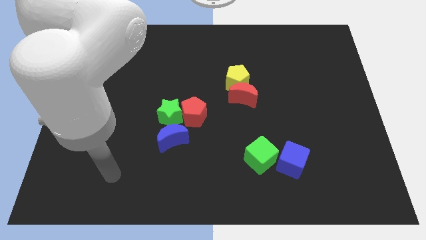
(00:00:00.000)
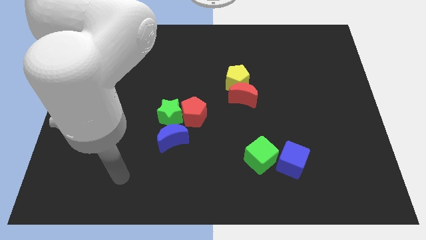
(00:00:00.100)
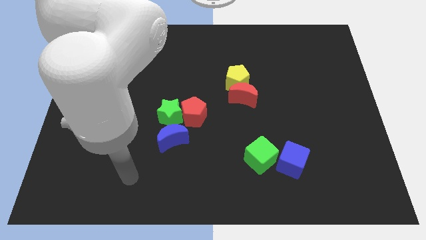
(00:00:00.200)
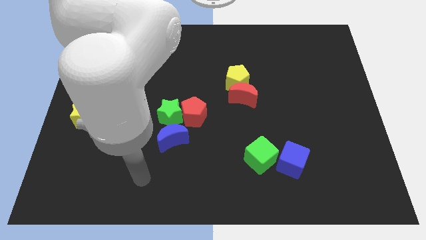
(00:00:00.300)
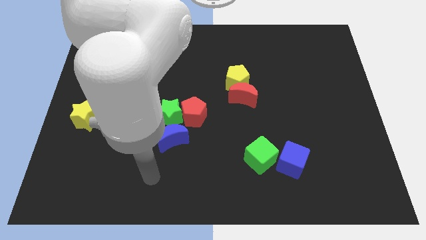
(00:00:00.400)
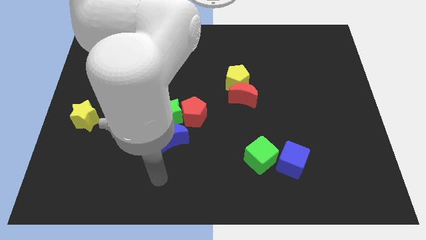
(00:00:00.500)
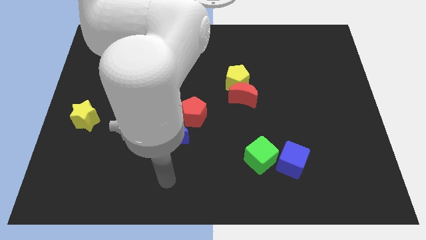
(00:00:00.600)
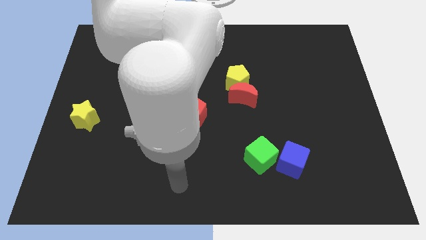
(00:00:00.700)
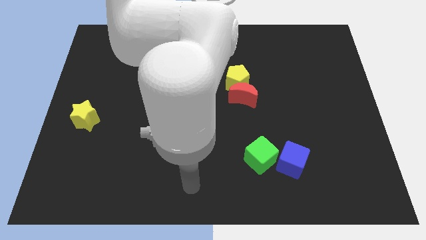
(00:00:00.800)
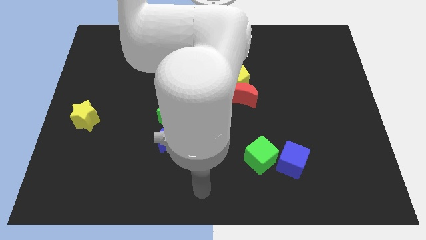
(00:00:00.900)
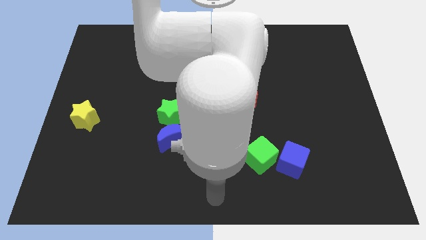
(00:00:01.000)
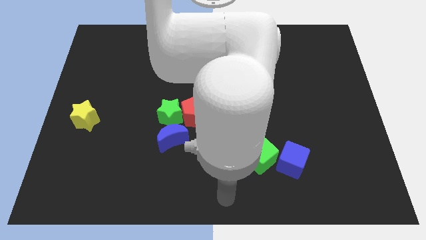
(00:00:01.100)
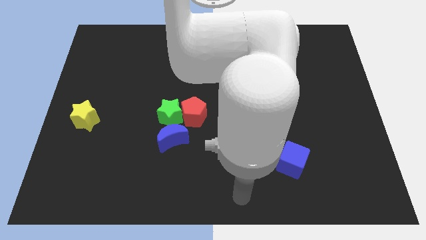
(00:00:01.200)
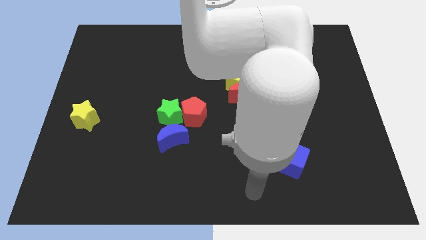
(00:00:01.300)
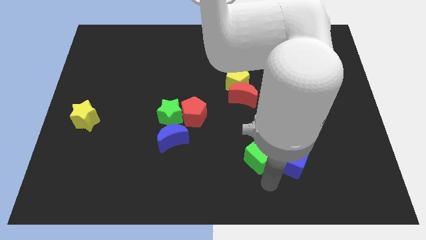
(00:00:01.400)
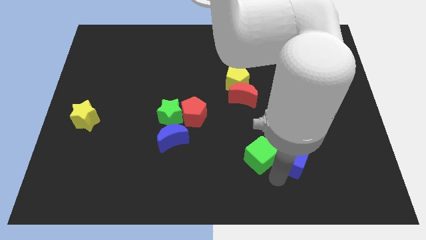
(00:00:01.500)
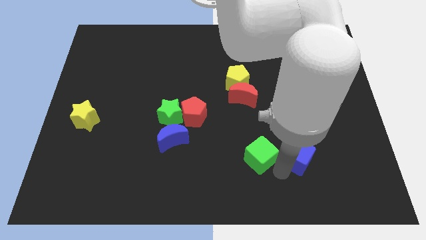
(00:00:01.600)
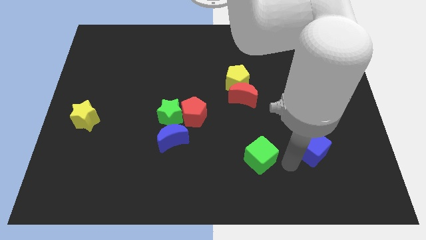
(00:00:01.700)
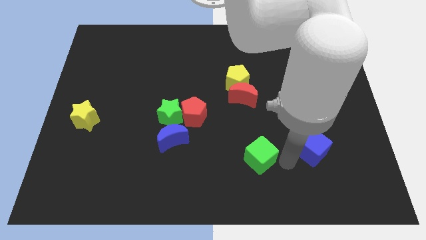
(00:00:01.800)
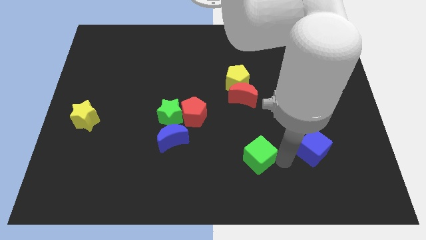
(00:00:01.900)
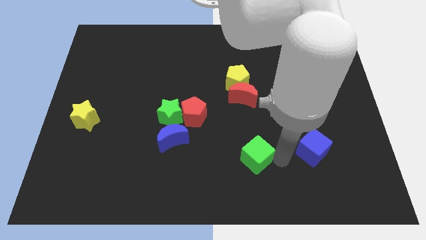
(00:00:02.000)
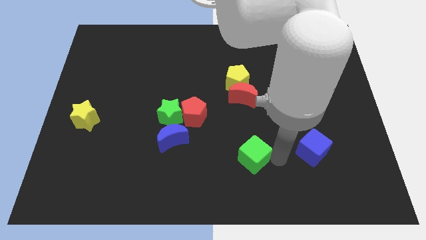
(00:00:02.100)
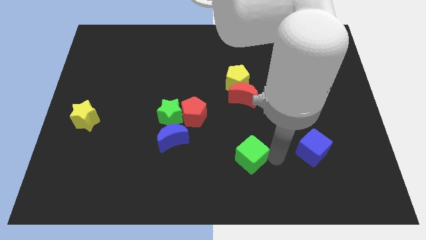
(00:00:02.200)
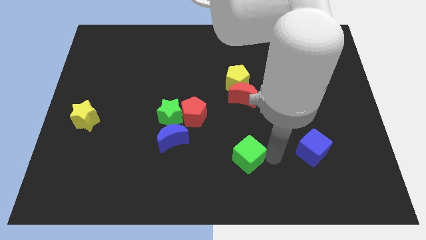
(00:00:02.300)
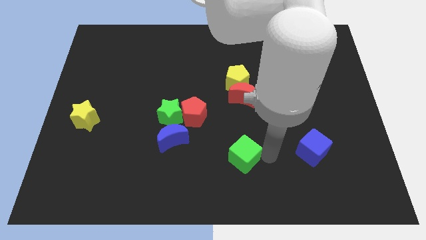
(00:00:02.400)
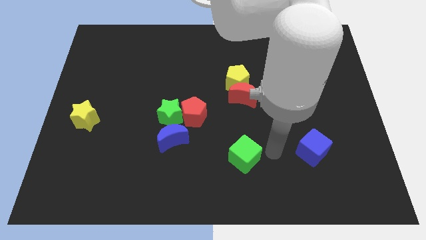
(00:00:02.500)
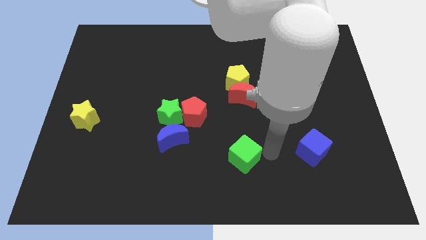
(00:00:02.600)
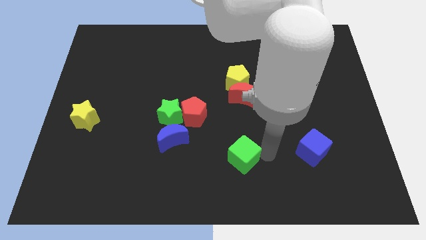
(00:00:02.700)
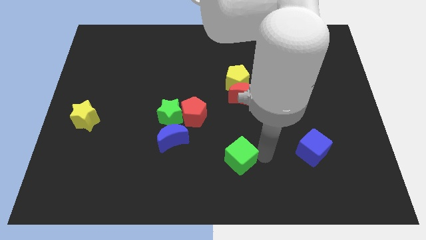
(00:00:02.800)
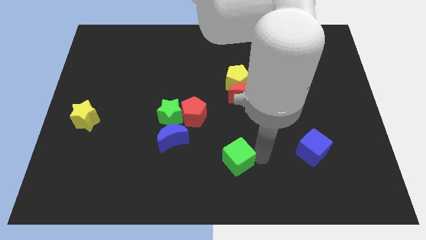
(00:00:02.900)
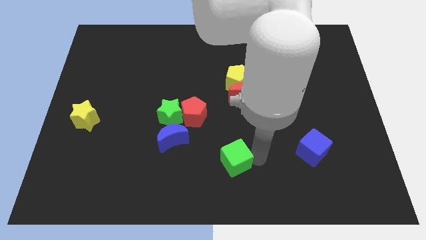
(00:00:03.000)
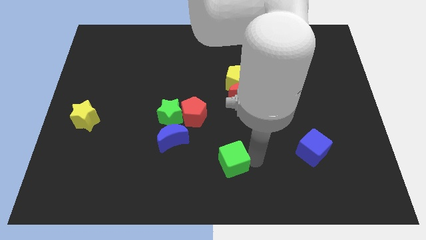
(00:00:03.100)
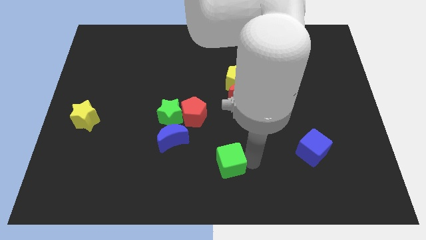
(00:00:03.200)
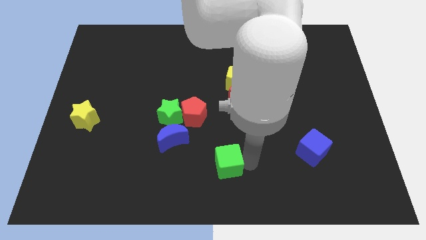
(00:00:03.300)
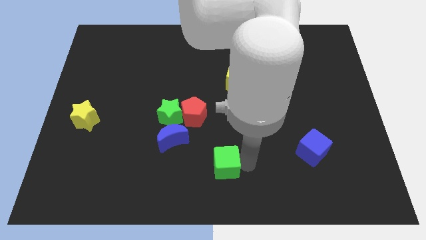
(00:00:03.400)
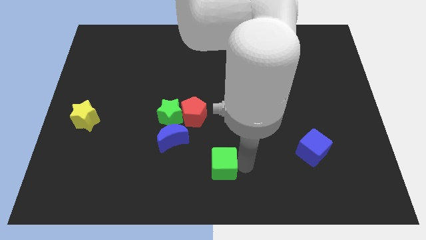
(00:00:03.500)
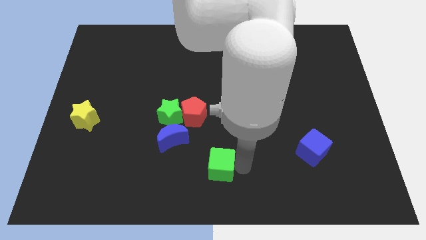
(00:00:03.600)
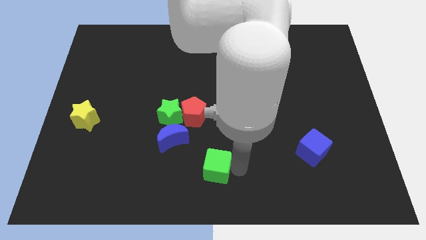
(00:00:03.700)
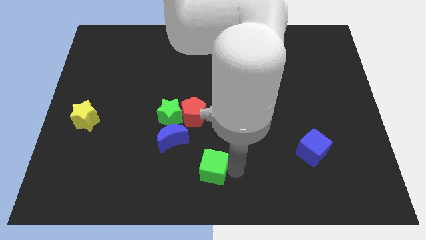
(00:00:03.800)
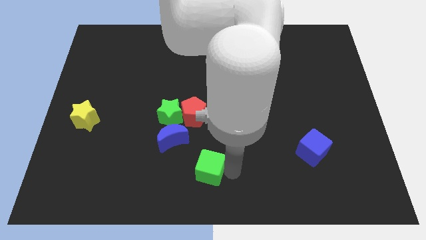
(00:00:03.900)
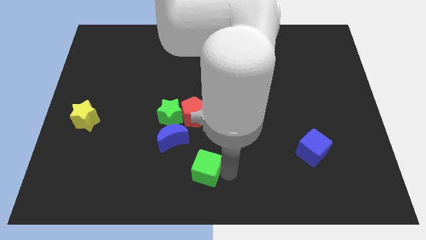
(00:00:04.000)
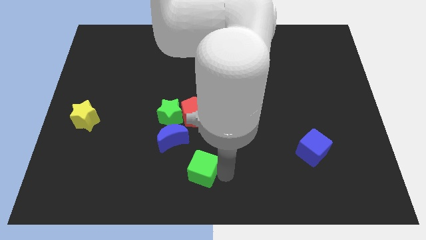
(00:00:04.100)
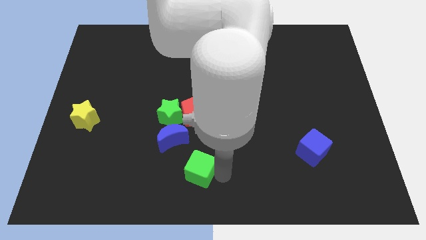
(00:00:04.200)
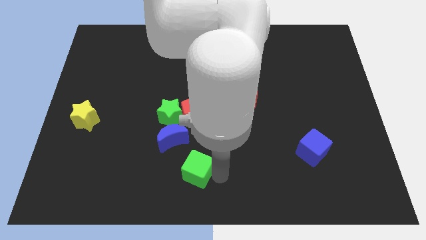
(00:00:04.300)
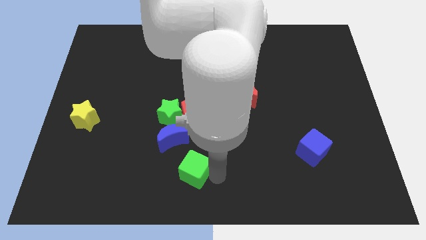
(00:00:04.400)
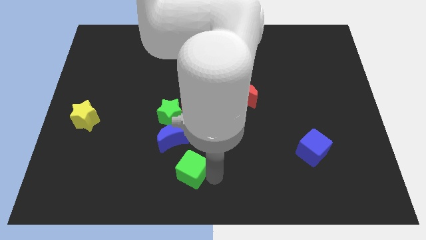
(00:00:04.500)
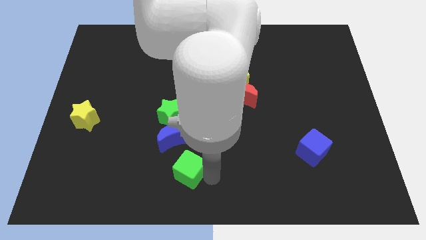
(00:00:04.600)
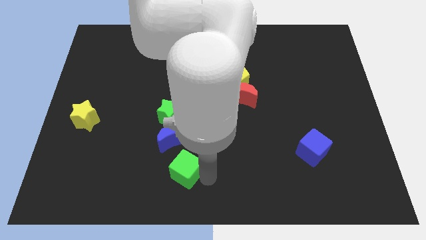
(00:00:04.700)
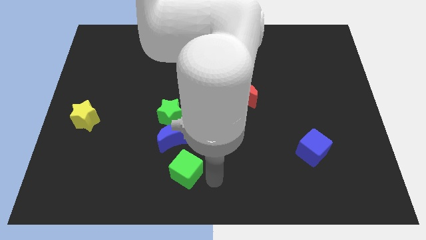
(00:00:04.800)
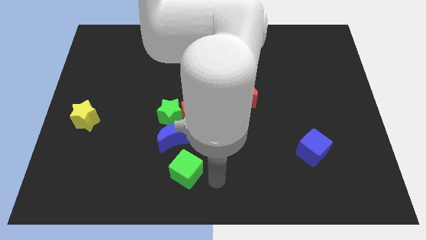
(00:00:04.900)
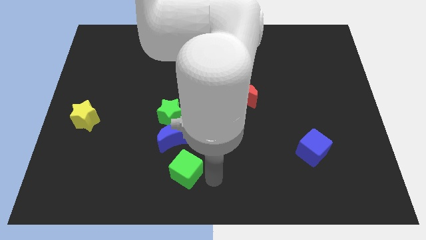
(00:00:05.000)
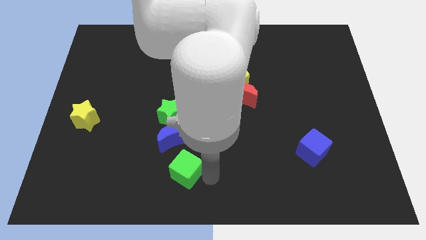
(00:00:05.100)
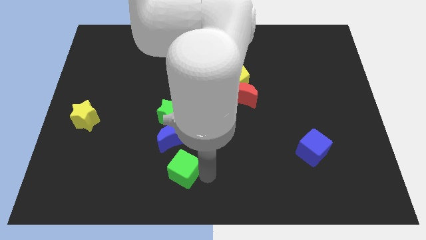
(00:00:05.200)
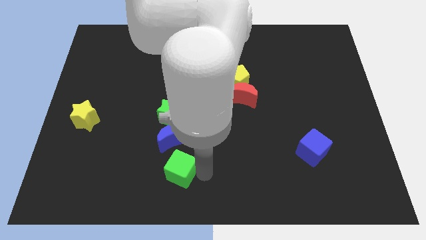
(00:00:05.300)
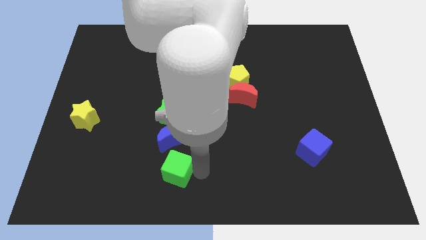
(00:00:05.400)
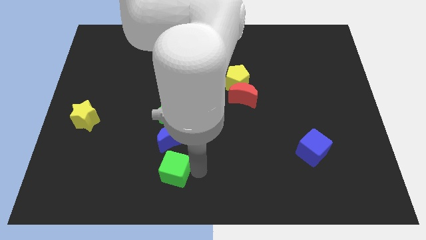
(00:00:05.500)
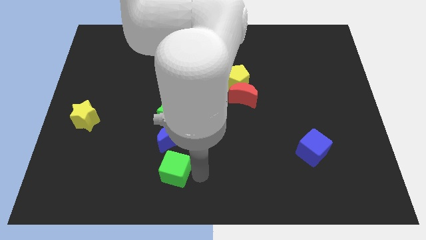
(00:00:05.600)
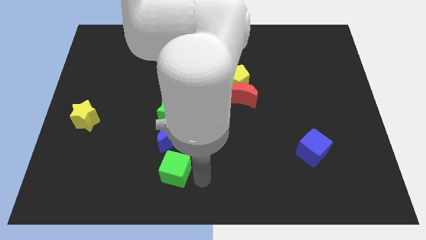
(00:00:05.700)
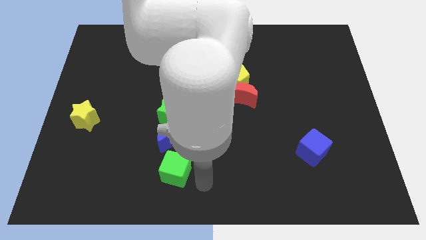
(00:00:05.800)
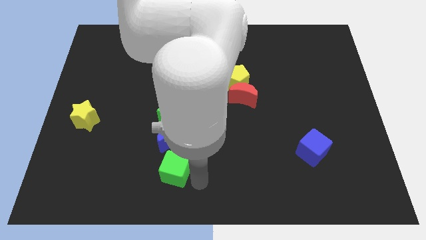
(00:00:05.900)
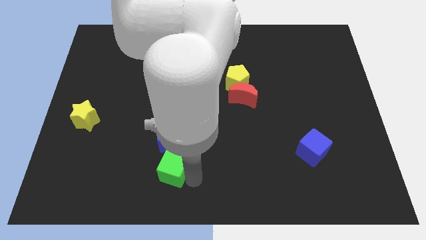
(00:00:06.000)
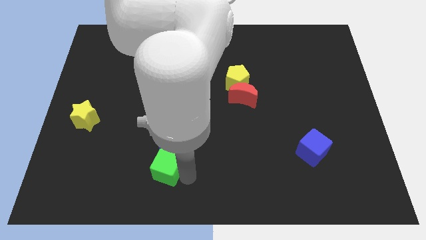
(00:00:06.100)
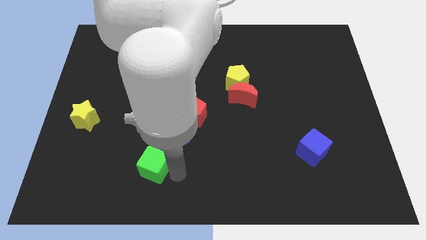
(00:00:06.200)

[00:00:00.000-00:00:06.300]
push the green cube to the left

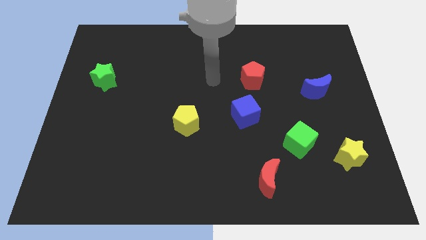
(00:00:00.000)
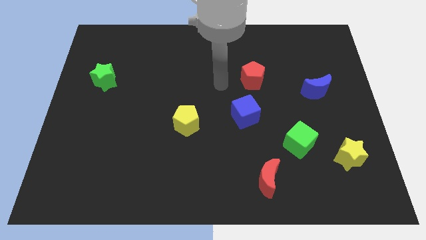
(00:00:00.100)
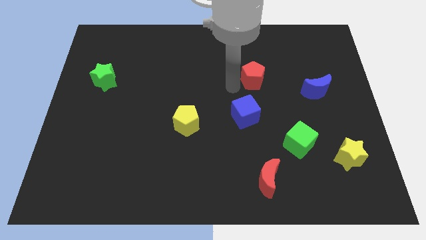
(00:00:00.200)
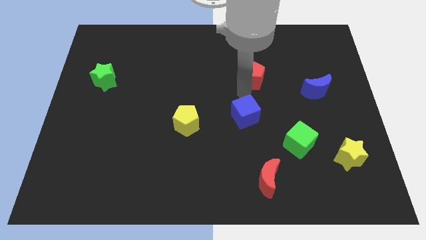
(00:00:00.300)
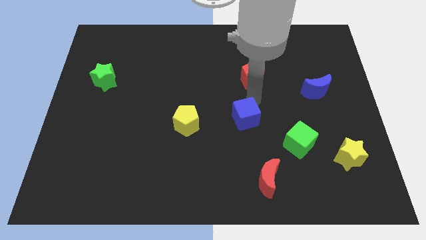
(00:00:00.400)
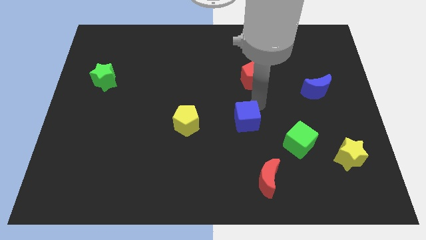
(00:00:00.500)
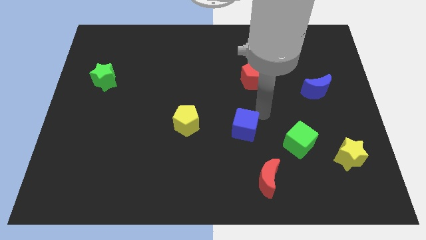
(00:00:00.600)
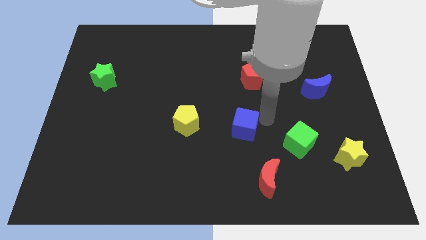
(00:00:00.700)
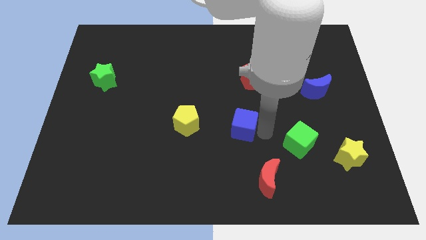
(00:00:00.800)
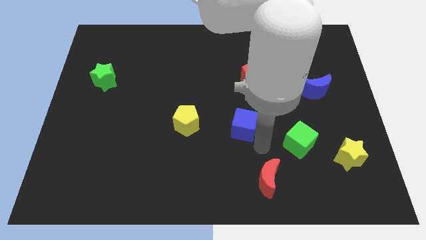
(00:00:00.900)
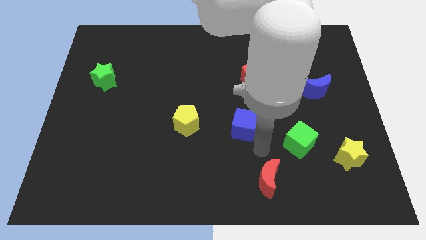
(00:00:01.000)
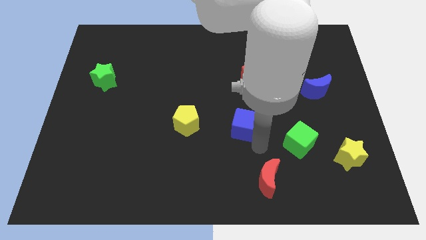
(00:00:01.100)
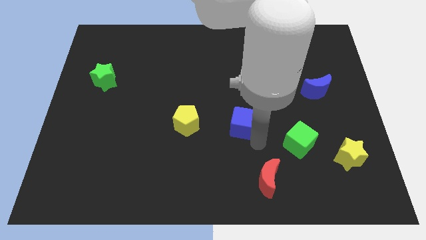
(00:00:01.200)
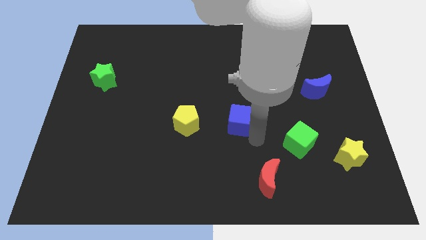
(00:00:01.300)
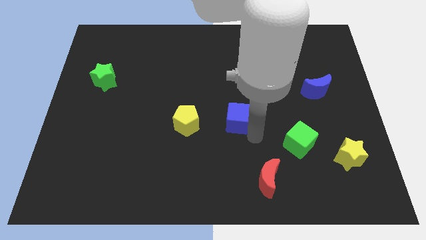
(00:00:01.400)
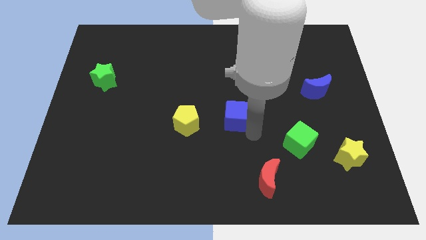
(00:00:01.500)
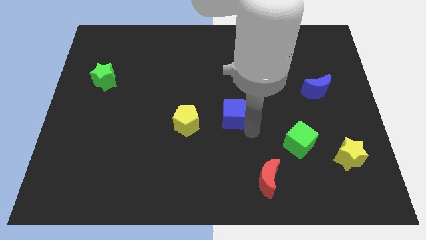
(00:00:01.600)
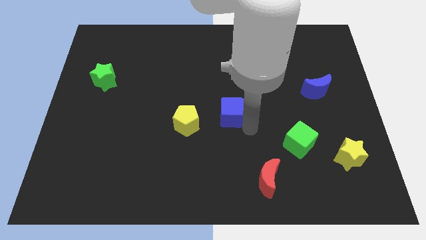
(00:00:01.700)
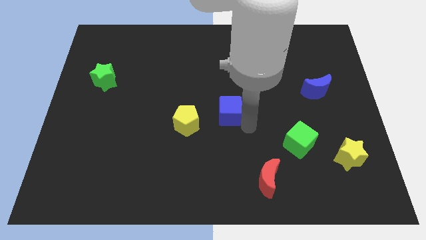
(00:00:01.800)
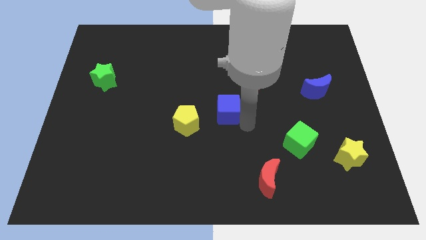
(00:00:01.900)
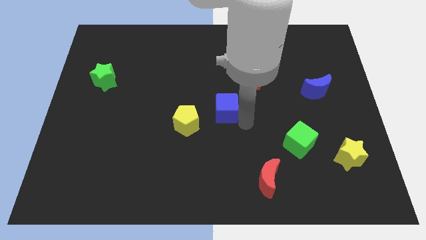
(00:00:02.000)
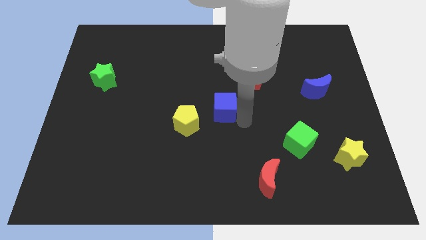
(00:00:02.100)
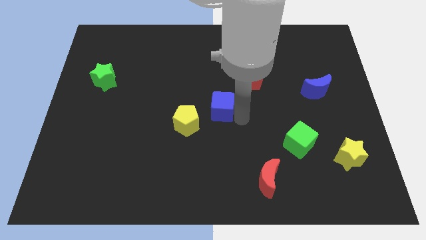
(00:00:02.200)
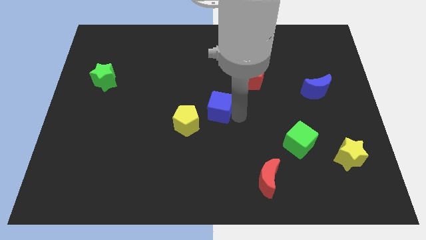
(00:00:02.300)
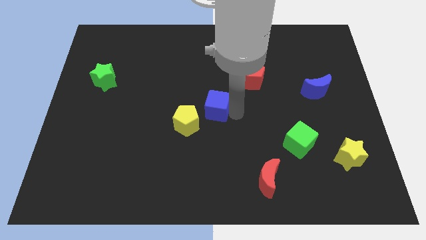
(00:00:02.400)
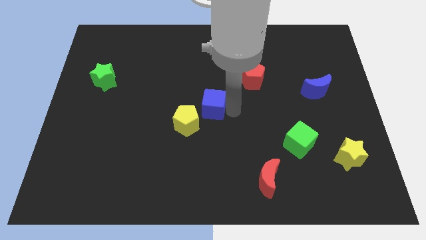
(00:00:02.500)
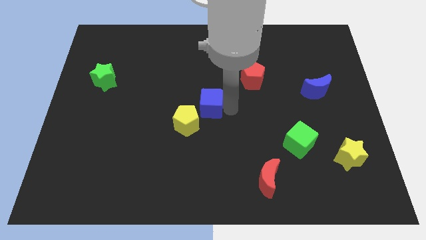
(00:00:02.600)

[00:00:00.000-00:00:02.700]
push the blue cube upwards and to the left a bit
